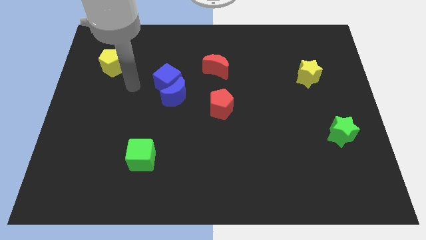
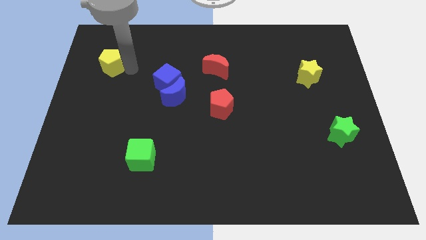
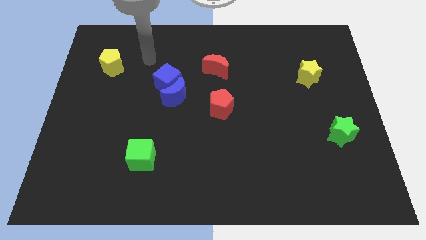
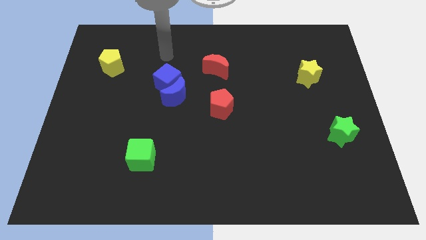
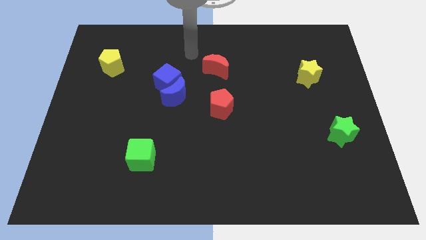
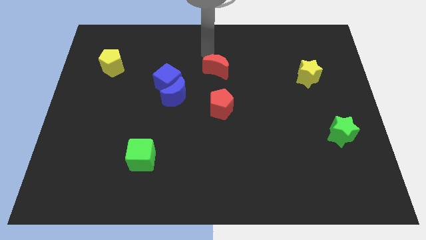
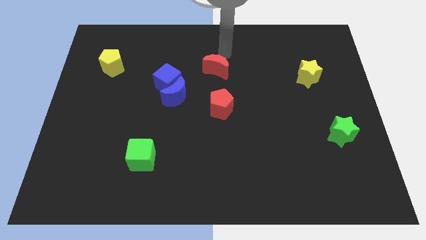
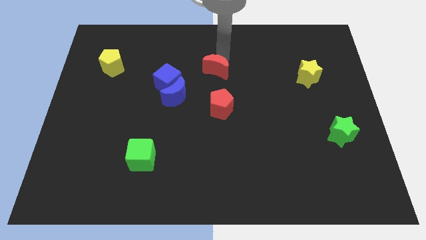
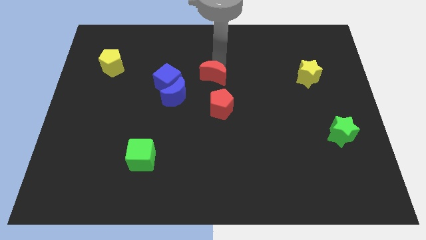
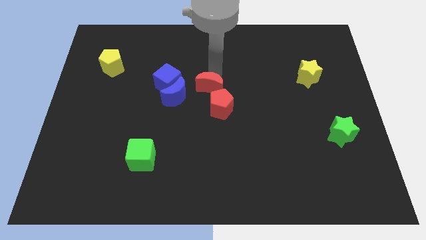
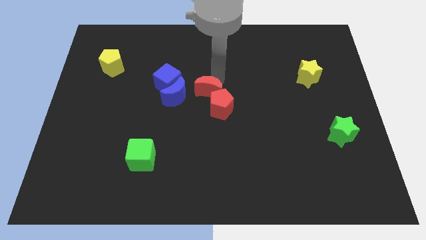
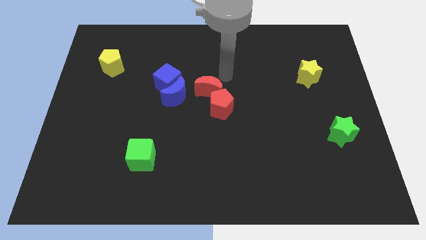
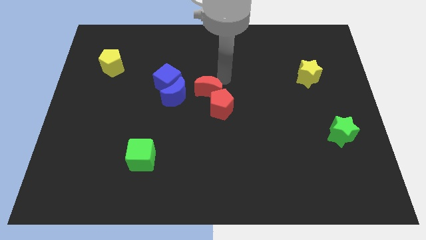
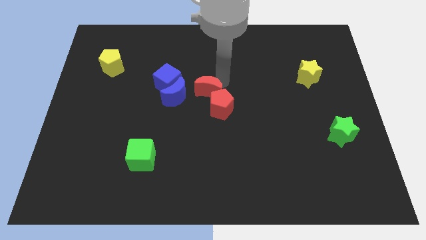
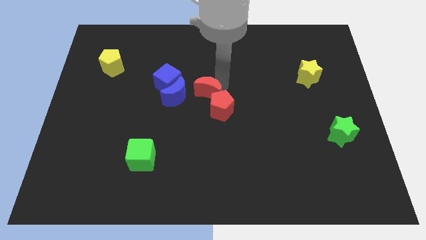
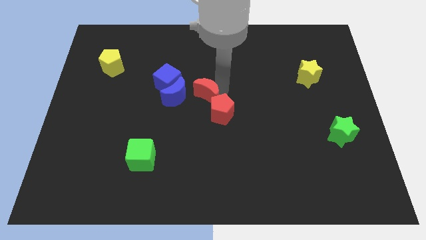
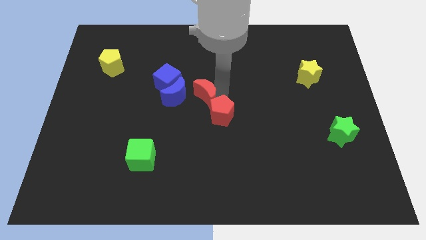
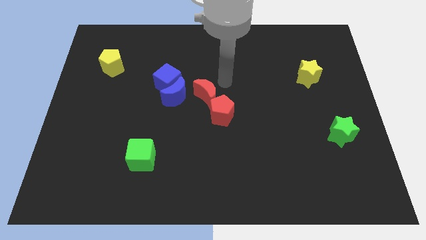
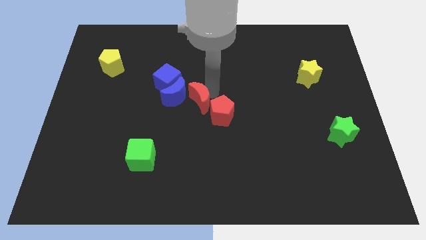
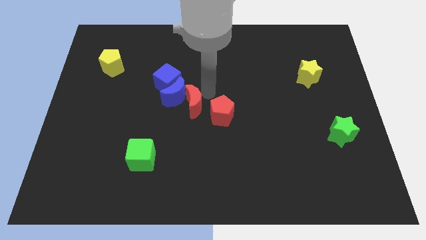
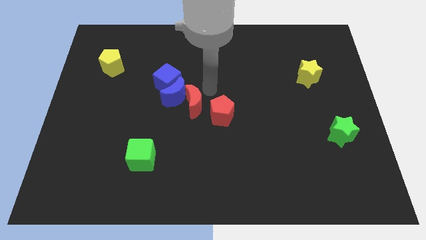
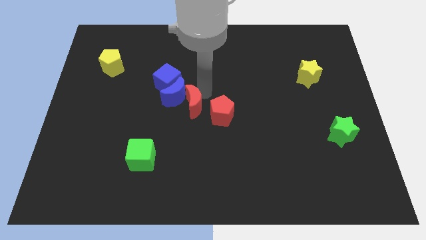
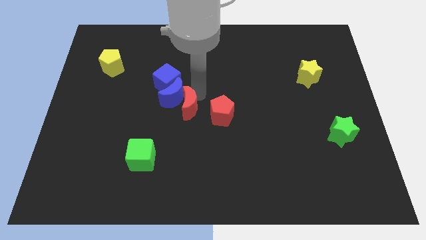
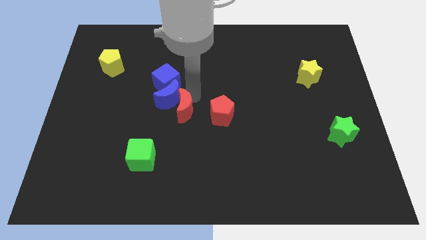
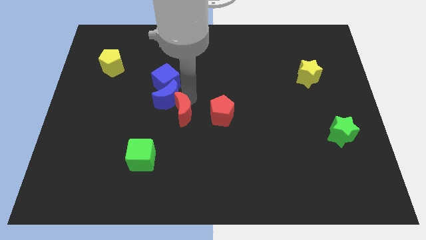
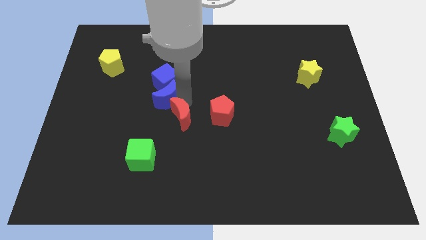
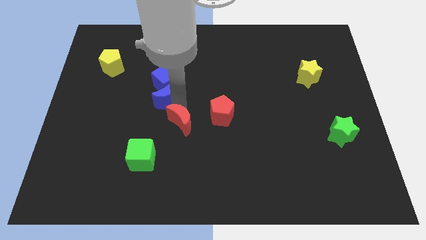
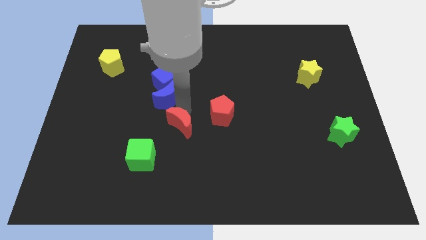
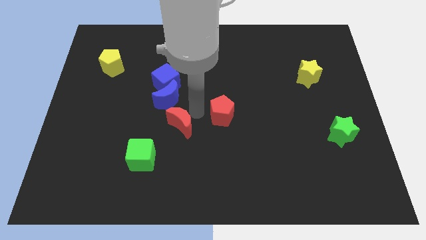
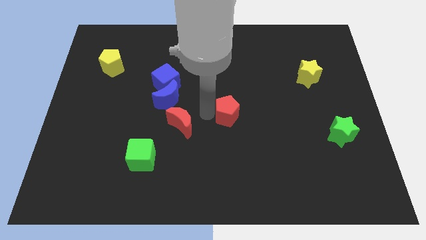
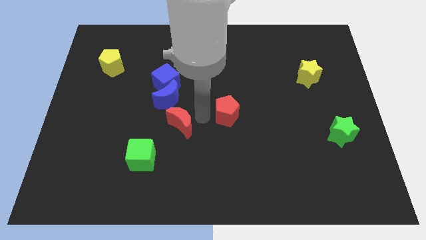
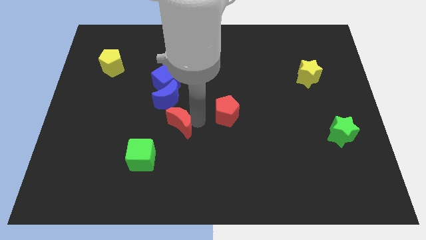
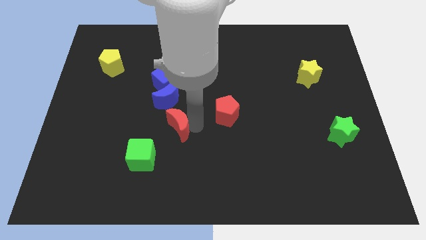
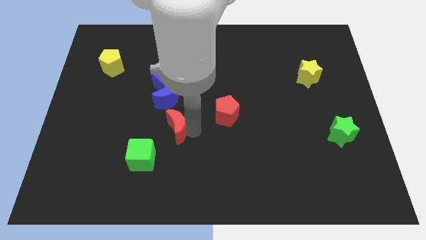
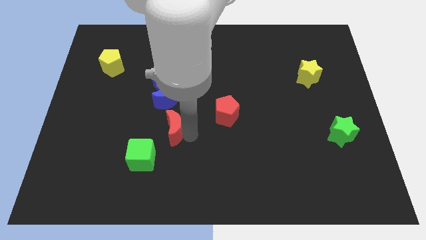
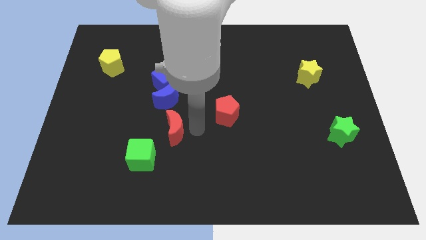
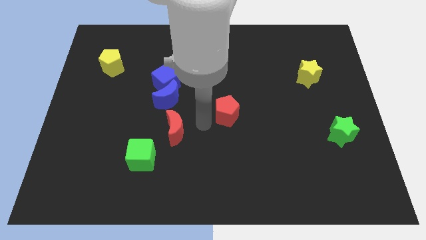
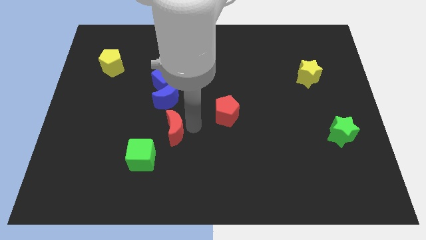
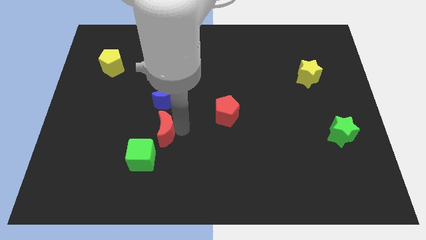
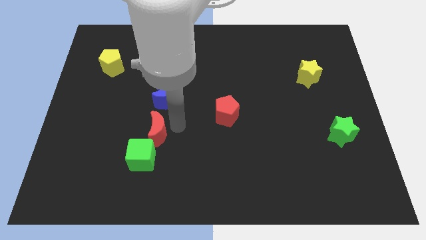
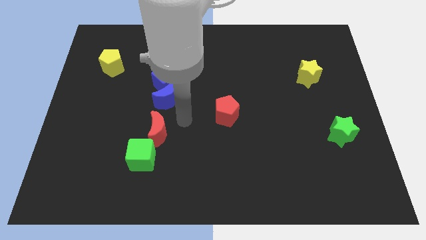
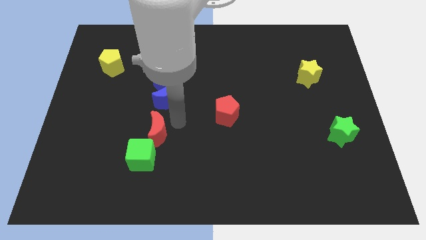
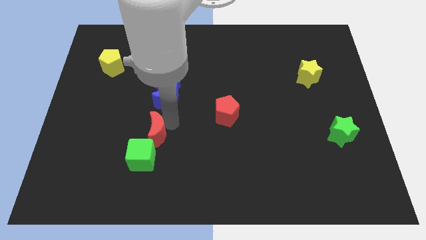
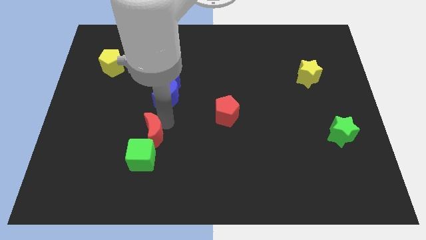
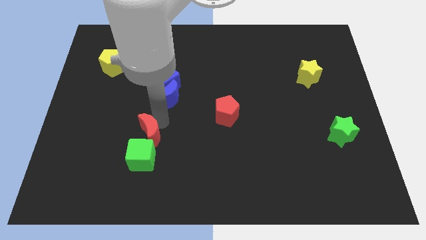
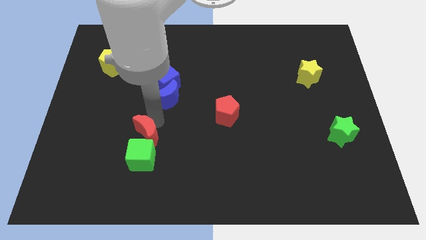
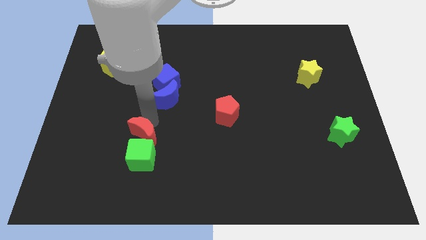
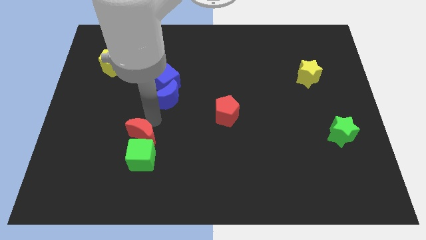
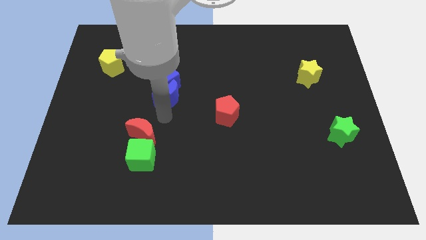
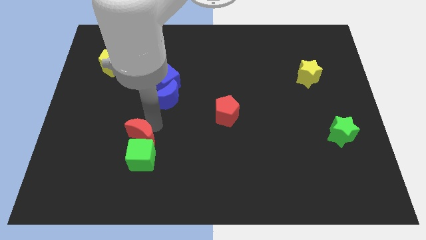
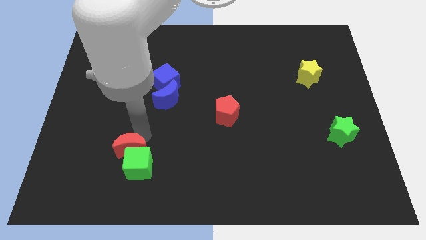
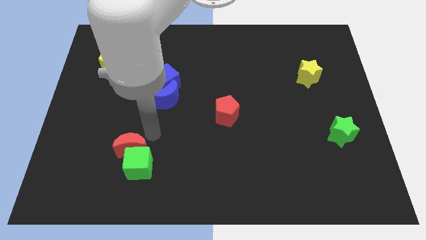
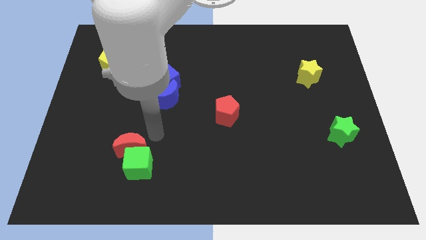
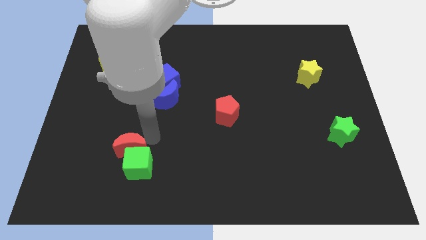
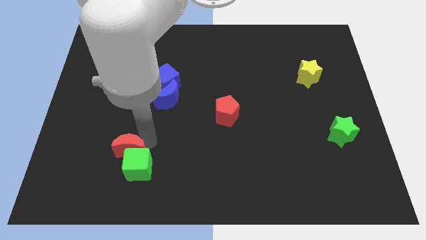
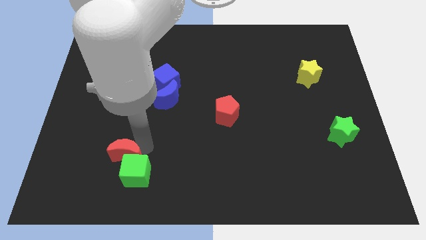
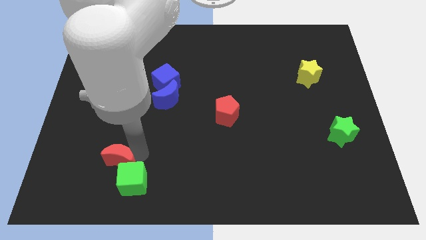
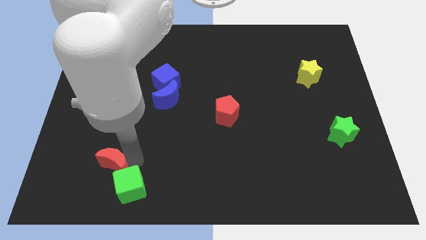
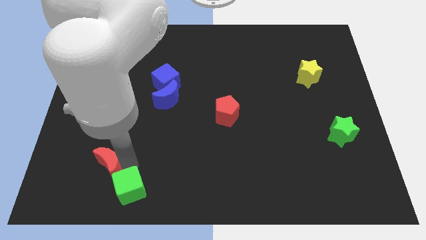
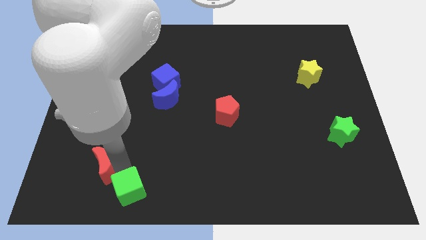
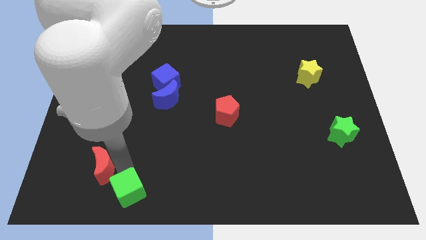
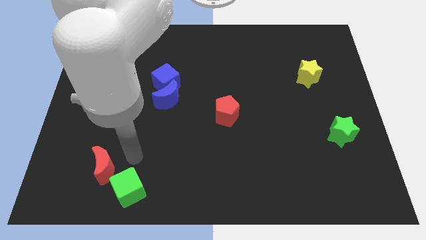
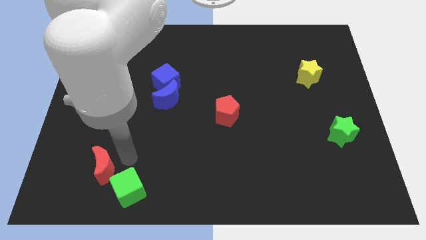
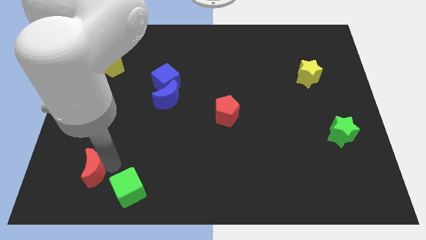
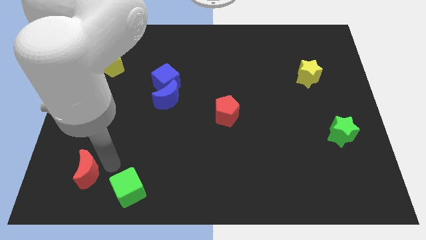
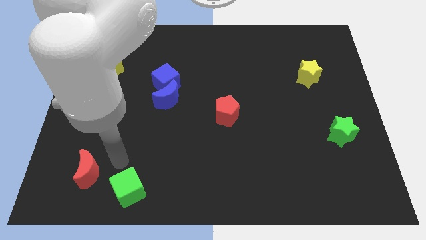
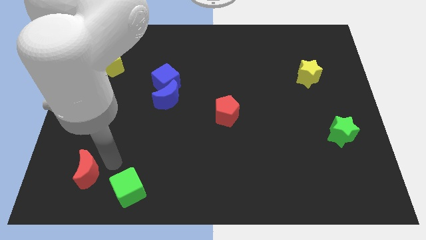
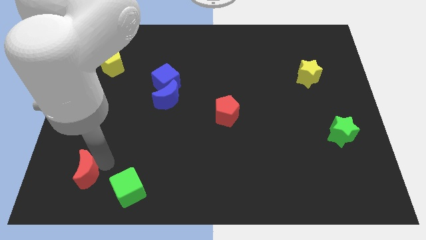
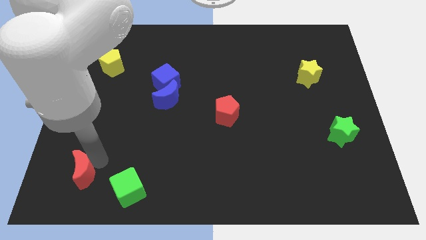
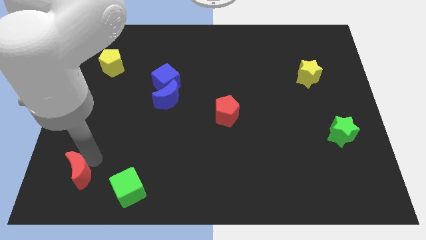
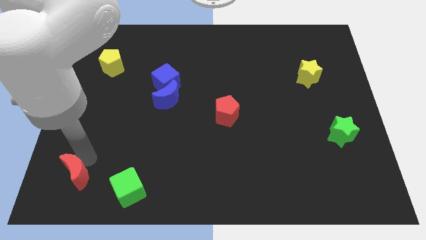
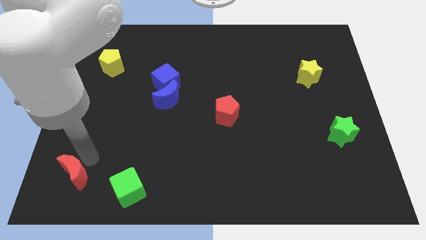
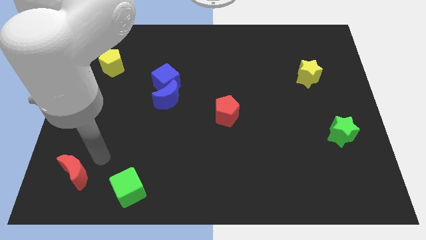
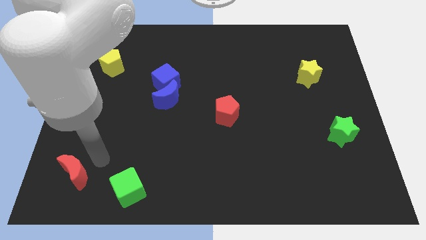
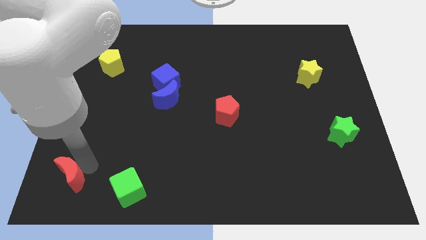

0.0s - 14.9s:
move the red moon to the bottom left corner

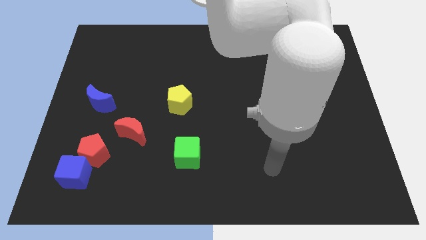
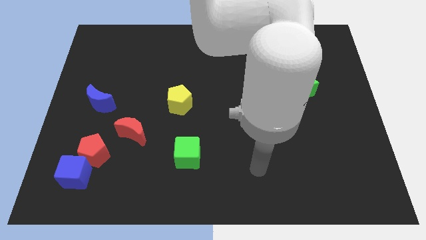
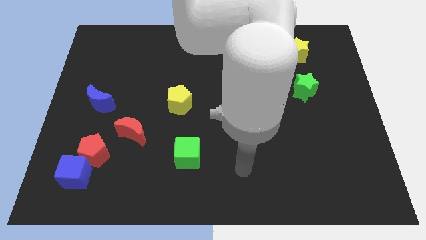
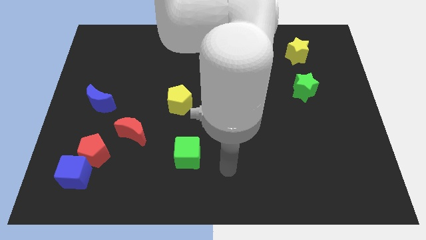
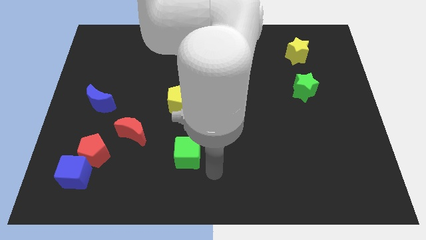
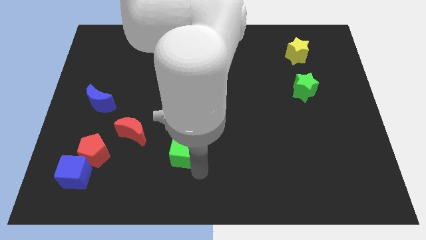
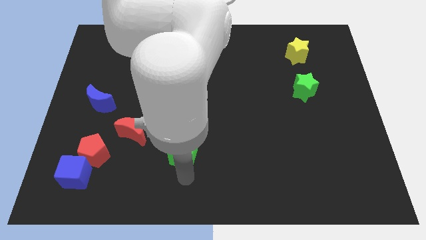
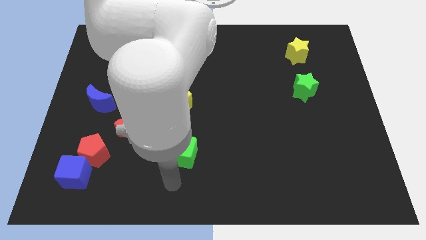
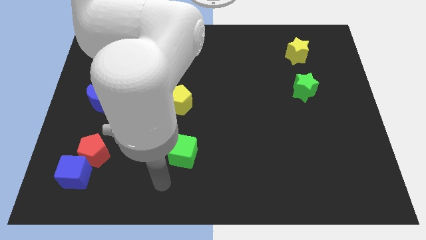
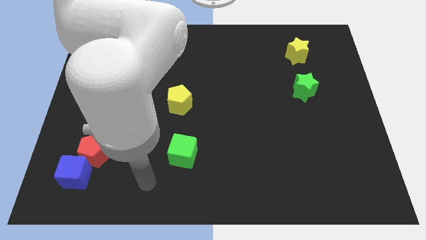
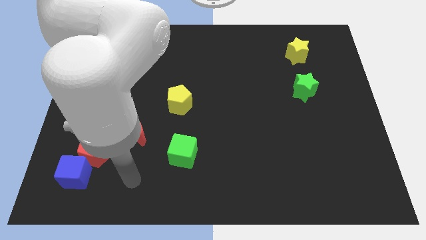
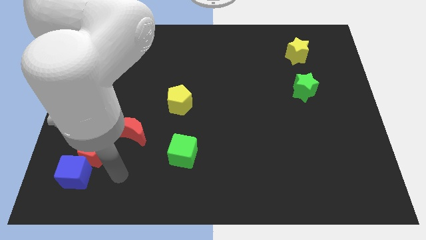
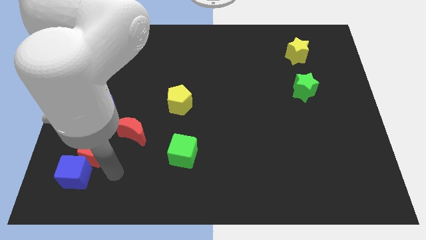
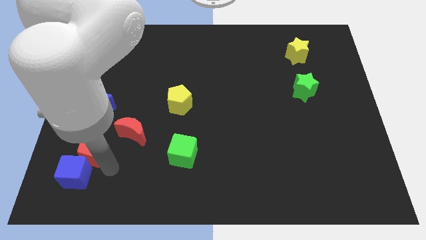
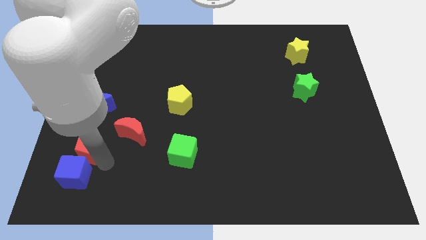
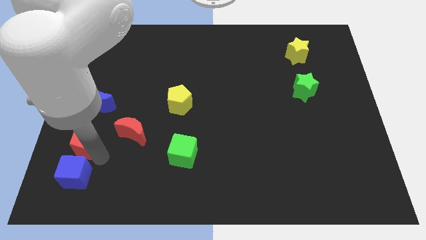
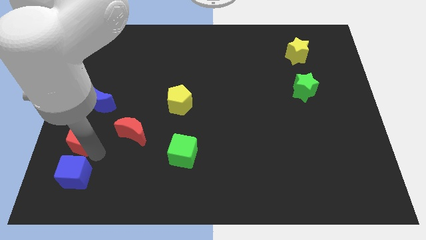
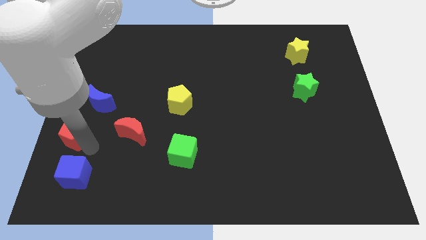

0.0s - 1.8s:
move the red pentagon to the center left
